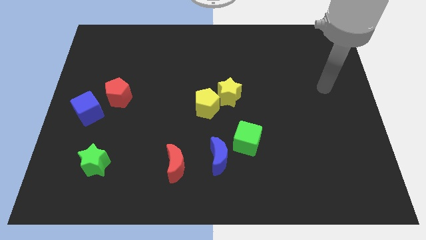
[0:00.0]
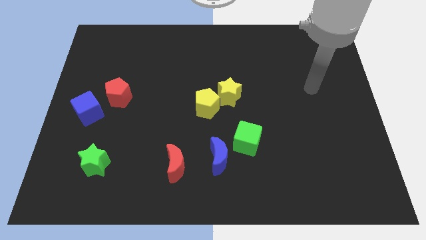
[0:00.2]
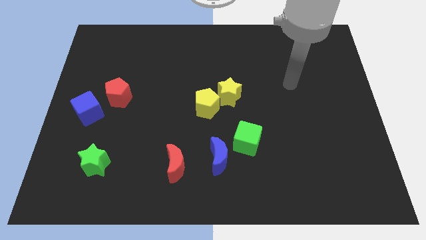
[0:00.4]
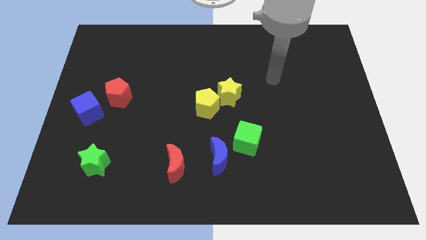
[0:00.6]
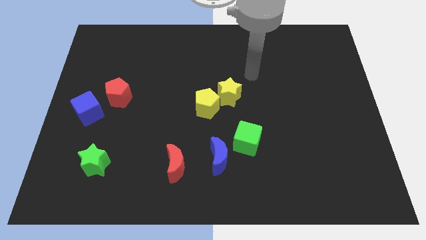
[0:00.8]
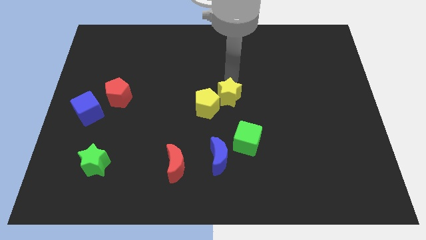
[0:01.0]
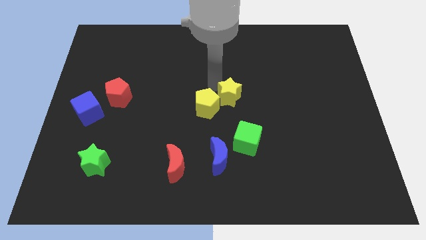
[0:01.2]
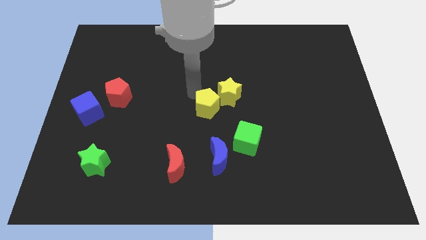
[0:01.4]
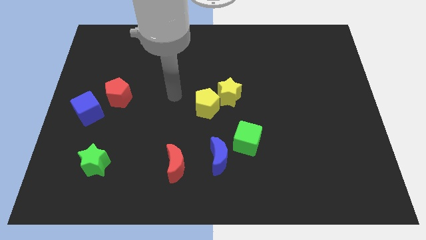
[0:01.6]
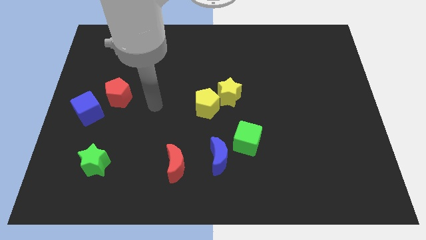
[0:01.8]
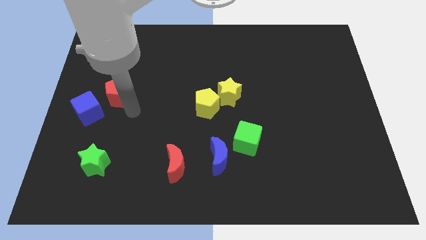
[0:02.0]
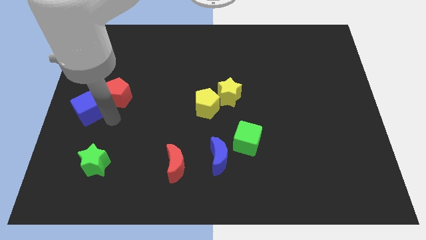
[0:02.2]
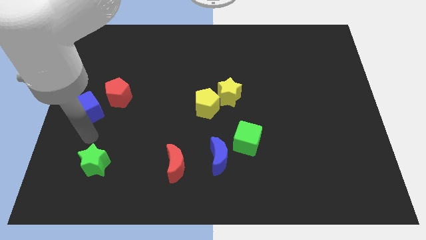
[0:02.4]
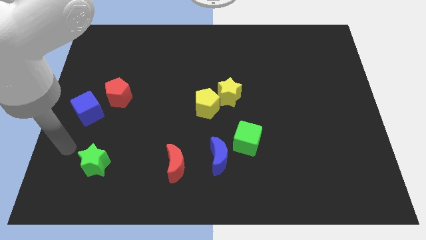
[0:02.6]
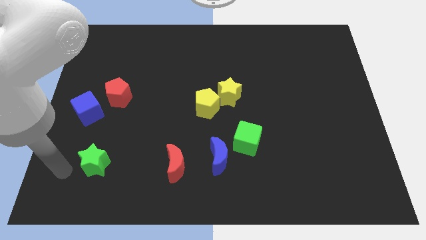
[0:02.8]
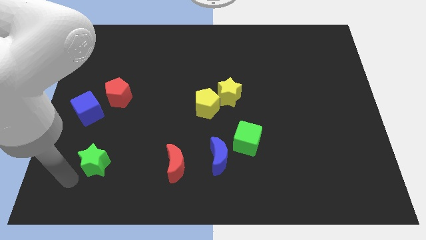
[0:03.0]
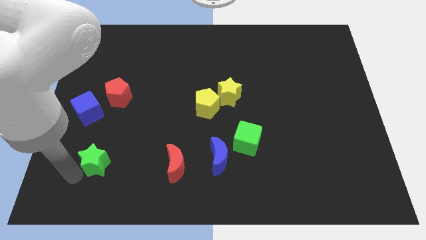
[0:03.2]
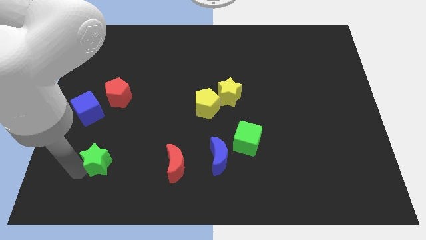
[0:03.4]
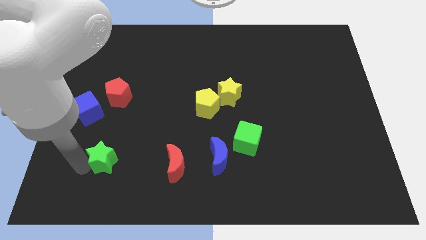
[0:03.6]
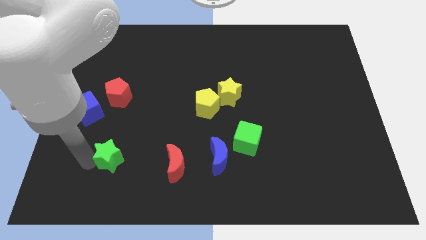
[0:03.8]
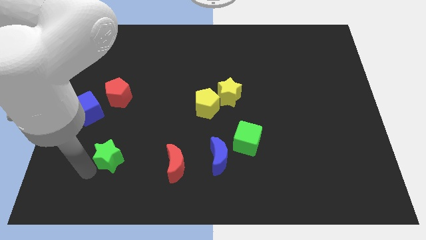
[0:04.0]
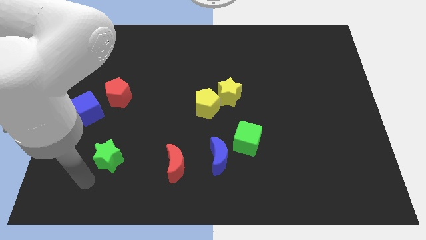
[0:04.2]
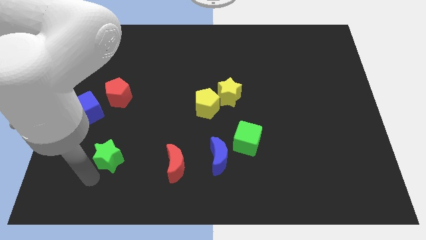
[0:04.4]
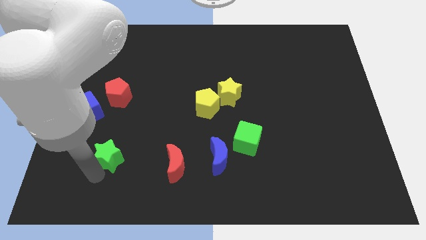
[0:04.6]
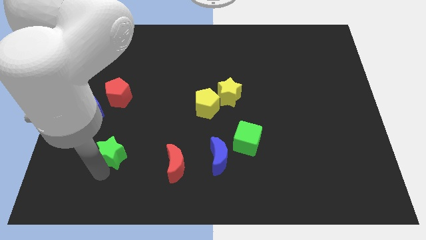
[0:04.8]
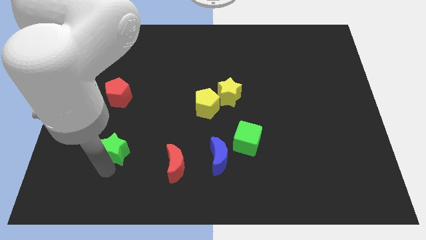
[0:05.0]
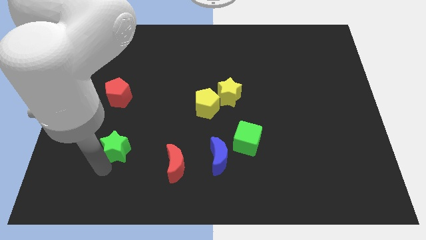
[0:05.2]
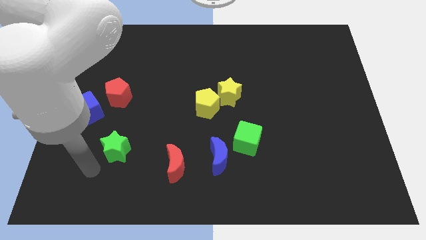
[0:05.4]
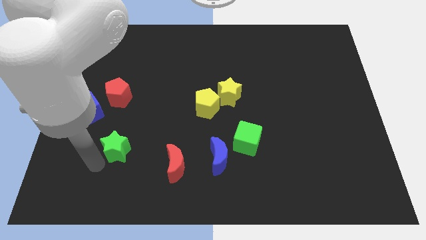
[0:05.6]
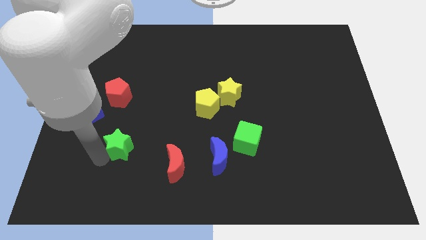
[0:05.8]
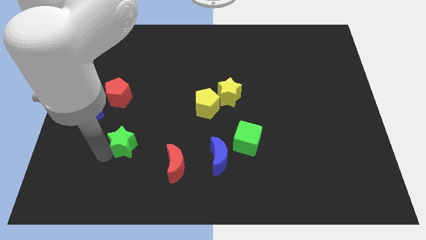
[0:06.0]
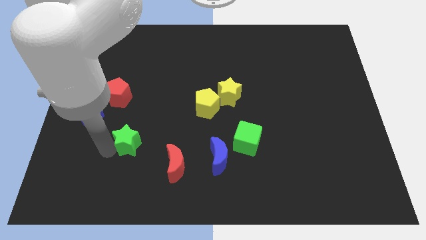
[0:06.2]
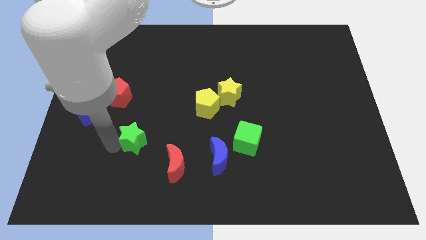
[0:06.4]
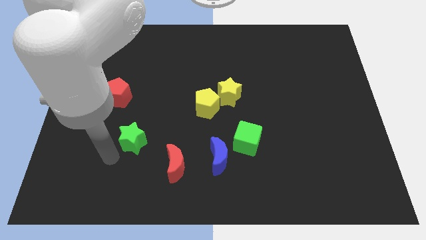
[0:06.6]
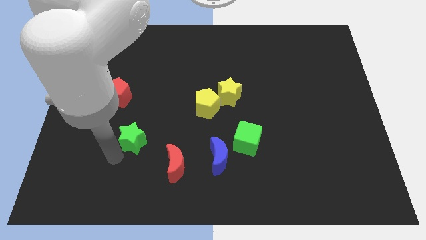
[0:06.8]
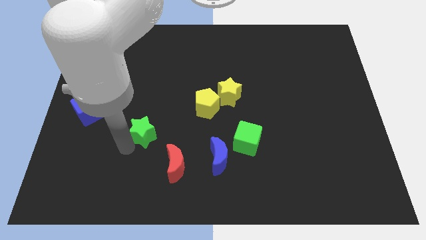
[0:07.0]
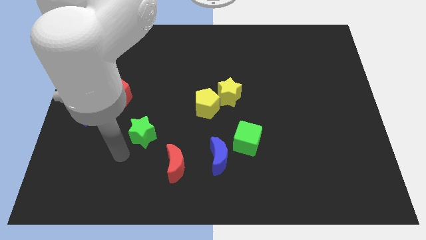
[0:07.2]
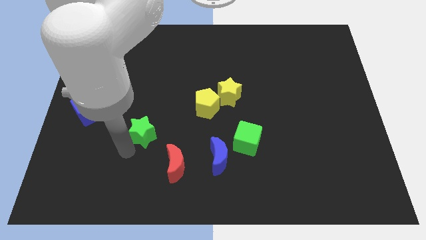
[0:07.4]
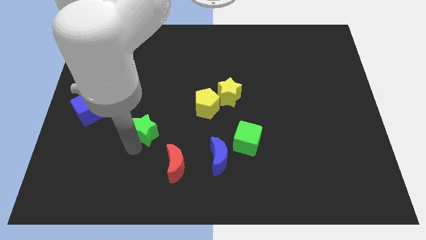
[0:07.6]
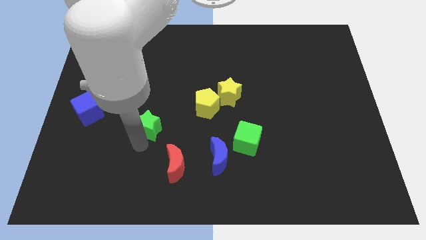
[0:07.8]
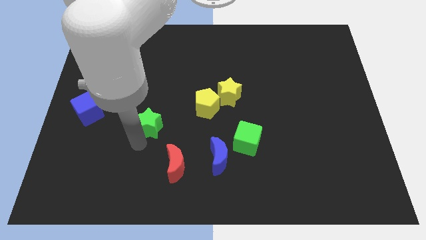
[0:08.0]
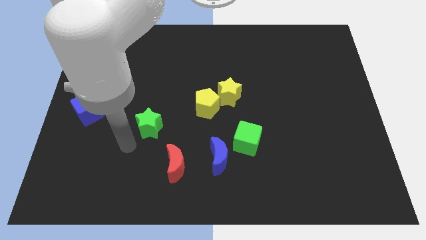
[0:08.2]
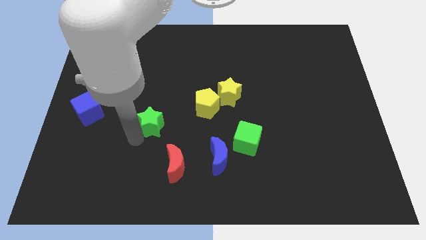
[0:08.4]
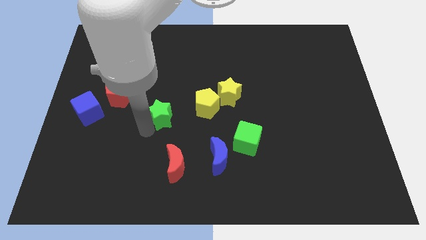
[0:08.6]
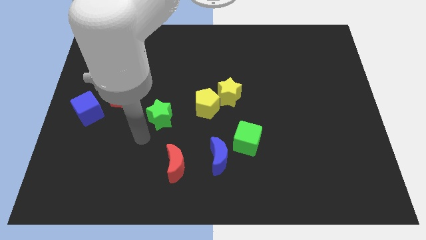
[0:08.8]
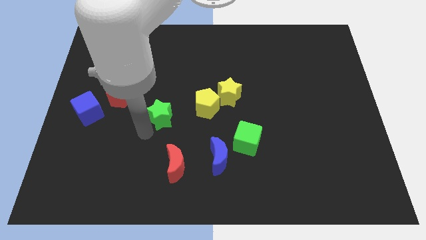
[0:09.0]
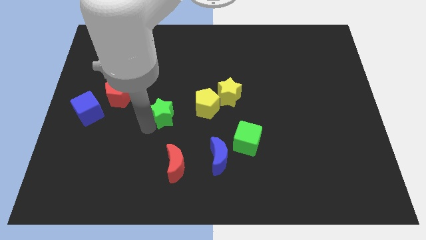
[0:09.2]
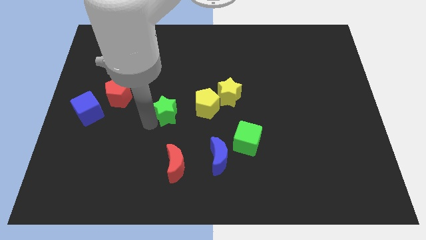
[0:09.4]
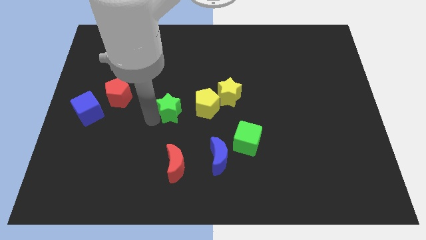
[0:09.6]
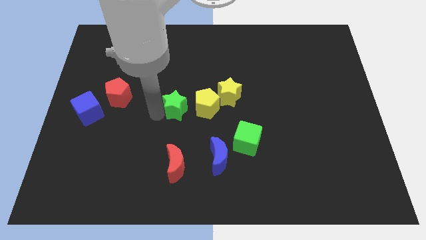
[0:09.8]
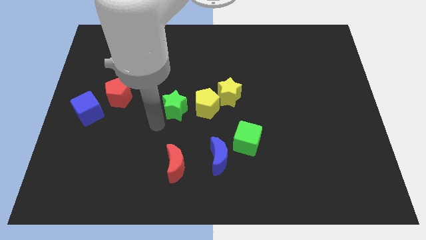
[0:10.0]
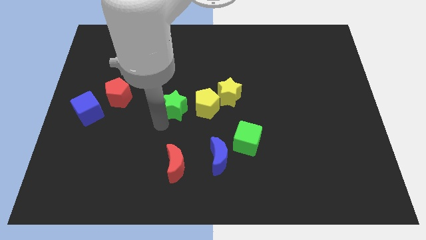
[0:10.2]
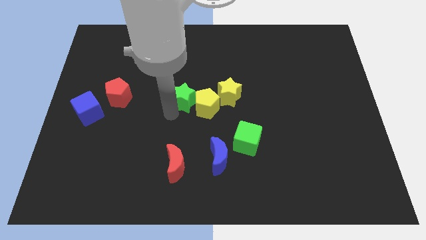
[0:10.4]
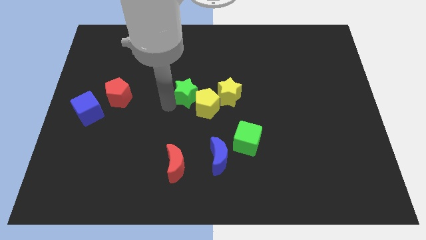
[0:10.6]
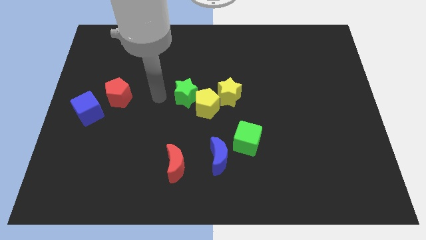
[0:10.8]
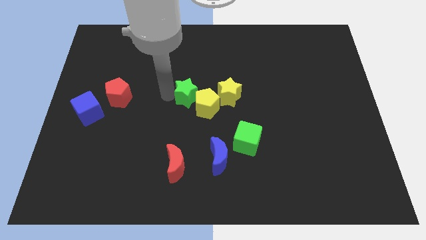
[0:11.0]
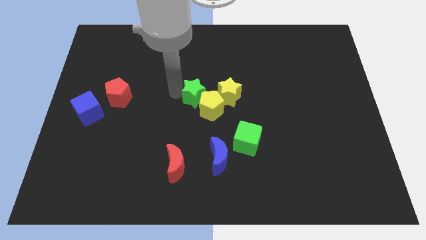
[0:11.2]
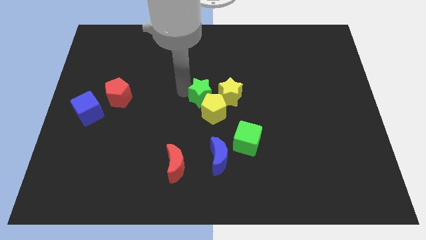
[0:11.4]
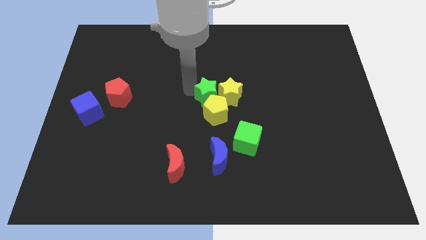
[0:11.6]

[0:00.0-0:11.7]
push the green star to the yellow star

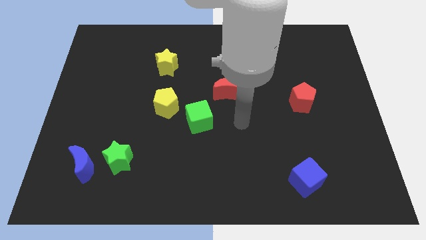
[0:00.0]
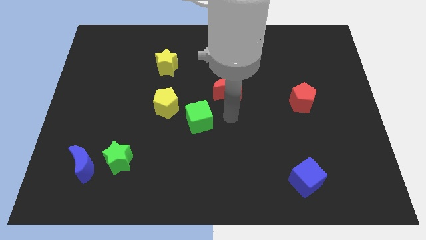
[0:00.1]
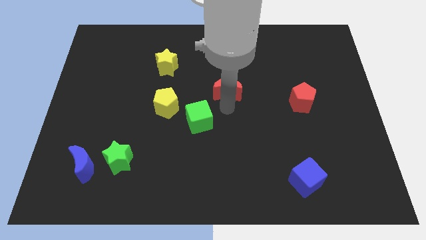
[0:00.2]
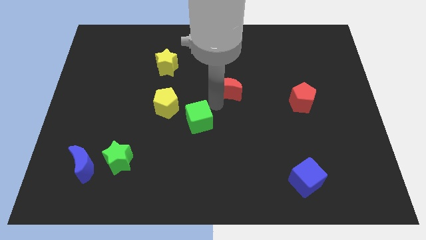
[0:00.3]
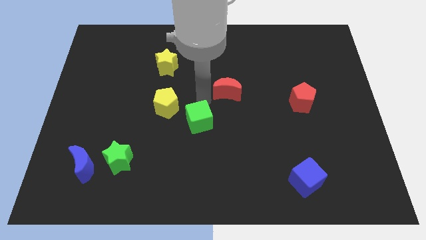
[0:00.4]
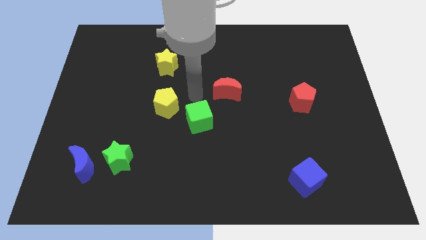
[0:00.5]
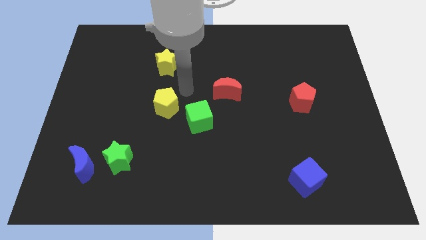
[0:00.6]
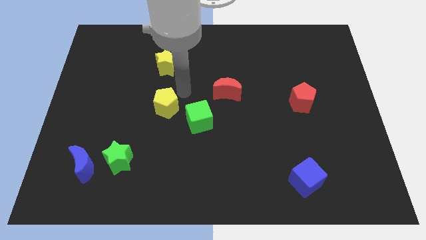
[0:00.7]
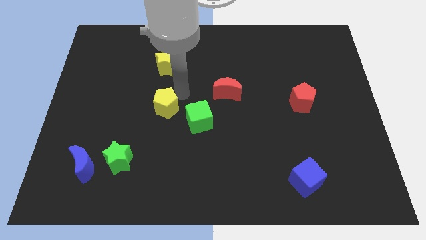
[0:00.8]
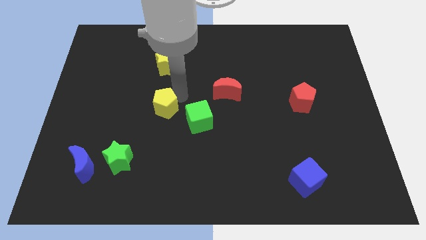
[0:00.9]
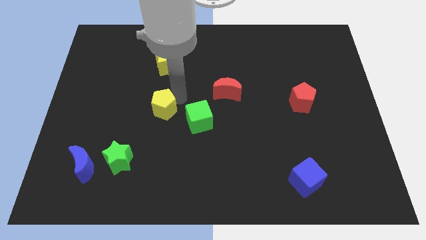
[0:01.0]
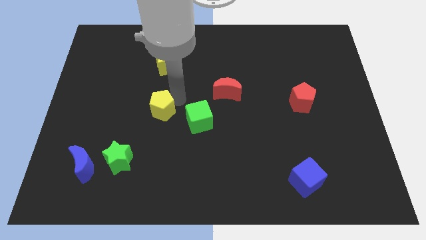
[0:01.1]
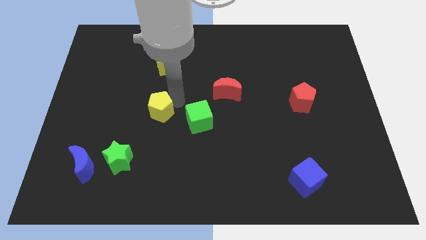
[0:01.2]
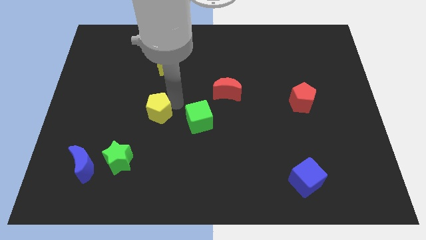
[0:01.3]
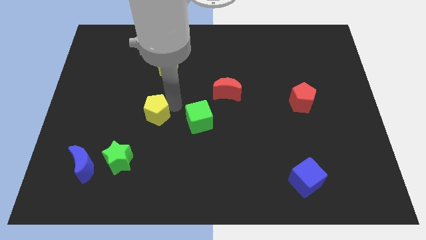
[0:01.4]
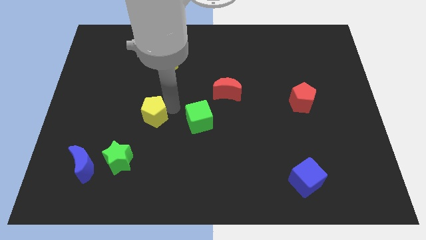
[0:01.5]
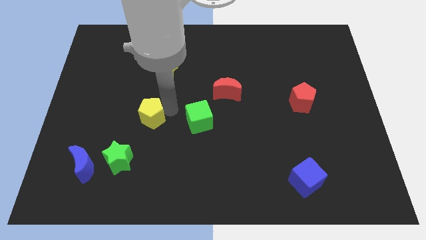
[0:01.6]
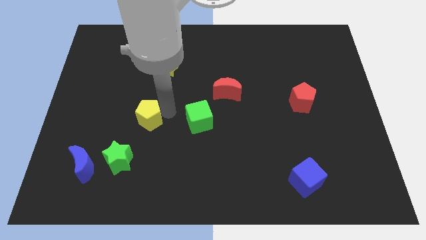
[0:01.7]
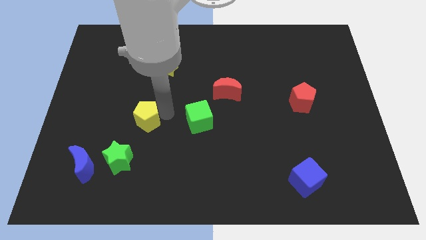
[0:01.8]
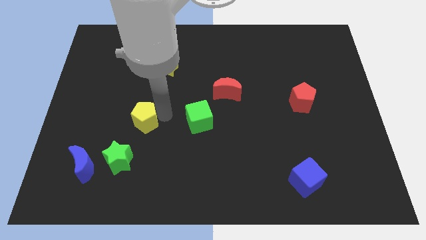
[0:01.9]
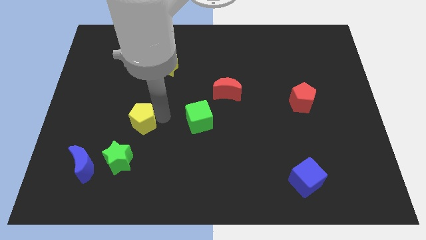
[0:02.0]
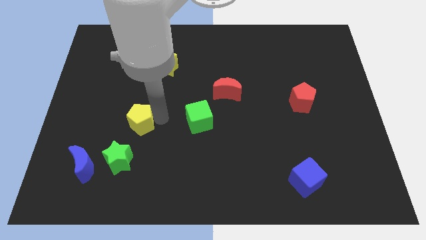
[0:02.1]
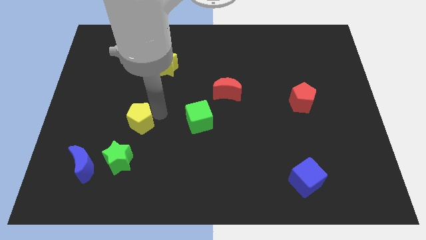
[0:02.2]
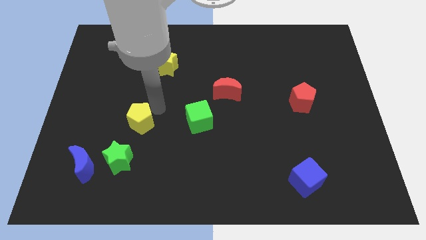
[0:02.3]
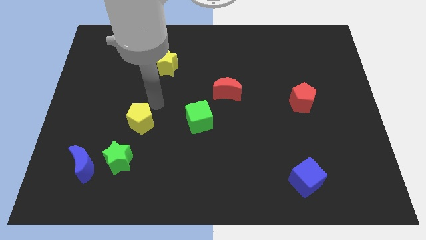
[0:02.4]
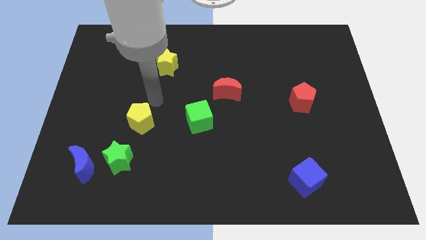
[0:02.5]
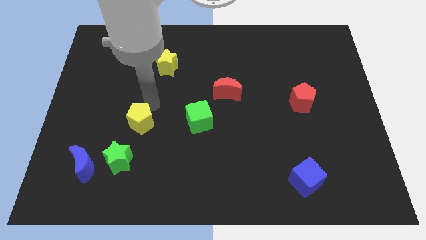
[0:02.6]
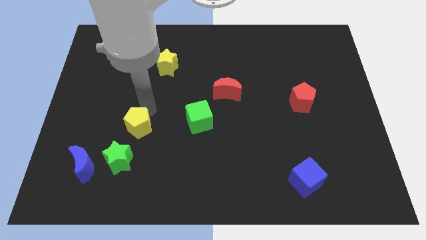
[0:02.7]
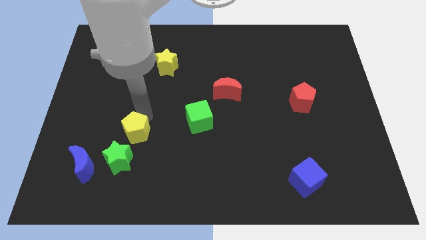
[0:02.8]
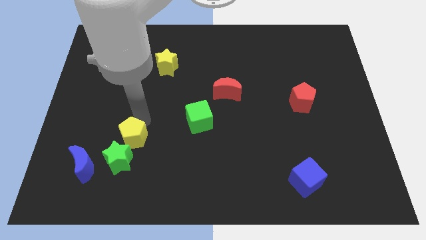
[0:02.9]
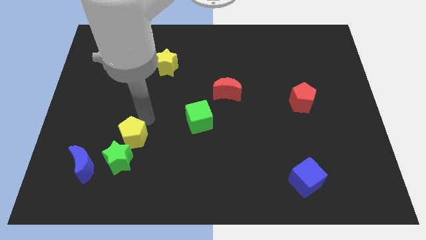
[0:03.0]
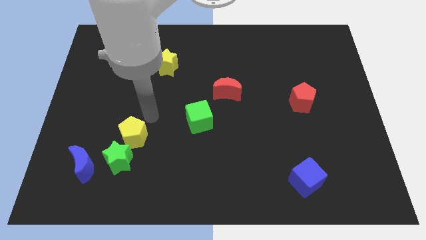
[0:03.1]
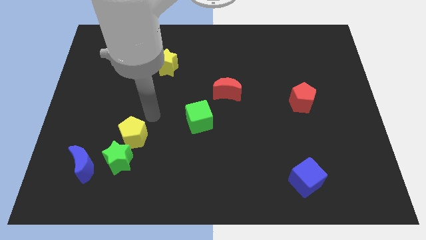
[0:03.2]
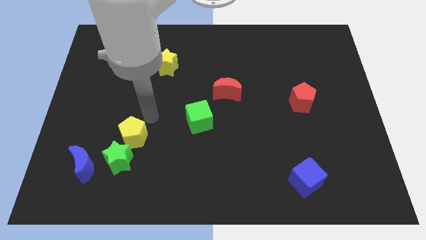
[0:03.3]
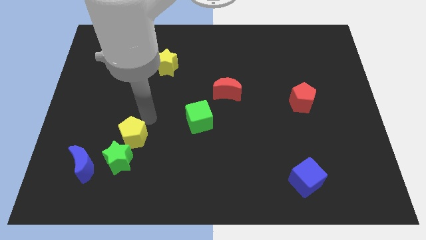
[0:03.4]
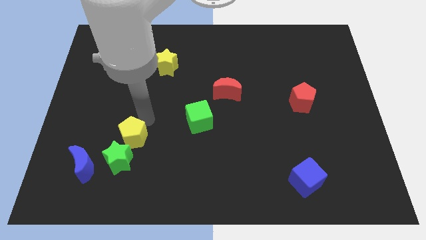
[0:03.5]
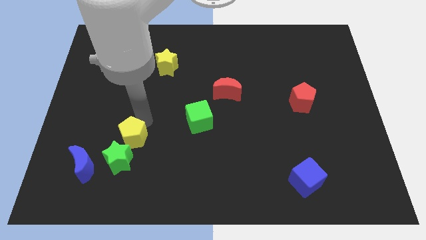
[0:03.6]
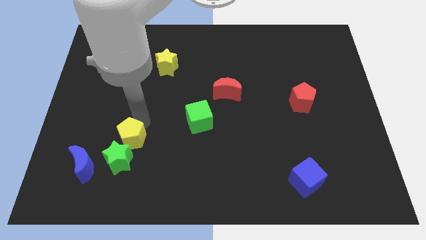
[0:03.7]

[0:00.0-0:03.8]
slide the yellow pentagon to the green star
